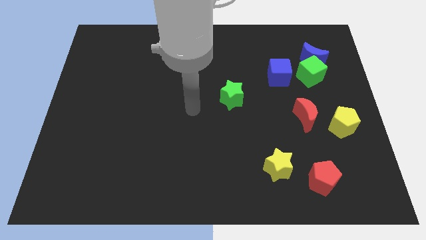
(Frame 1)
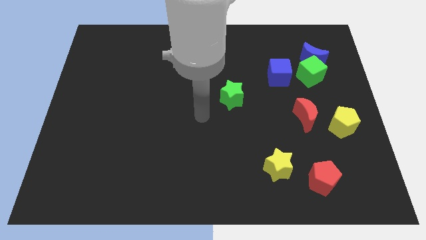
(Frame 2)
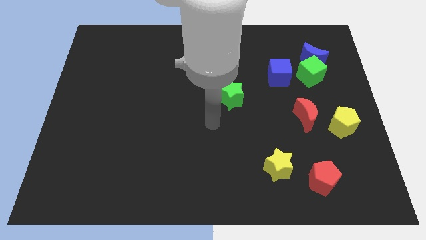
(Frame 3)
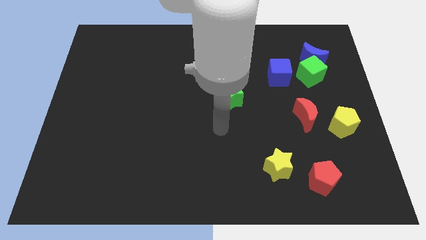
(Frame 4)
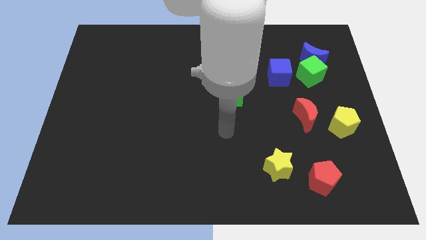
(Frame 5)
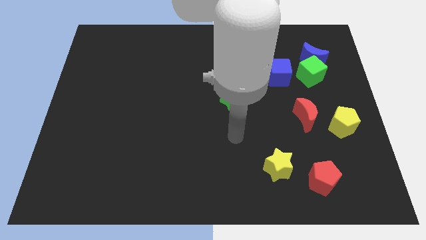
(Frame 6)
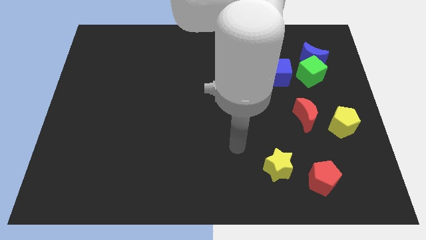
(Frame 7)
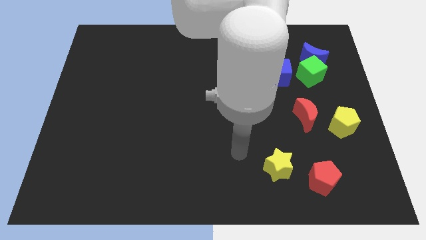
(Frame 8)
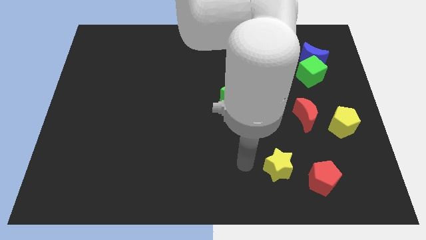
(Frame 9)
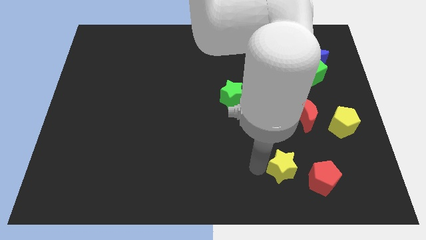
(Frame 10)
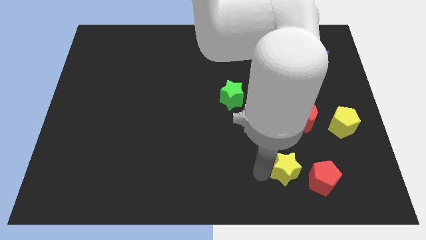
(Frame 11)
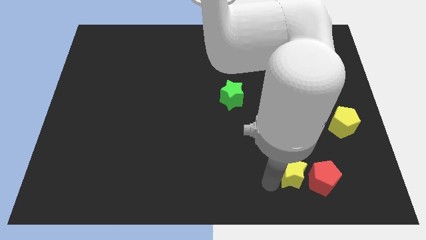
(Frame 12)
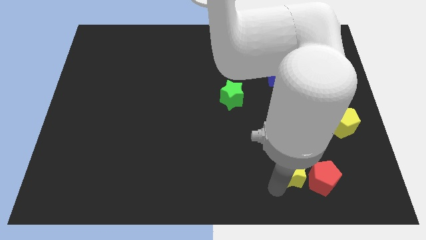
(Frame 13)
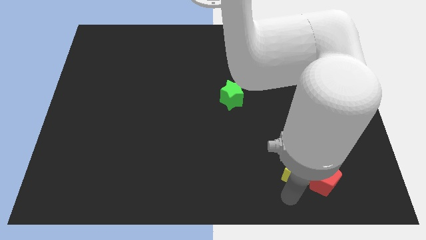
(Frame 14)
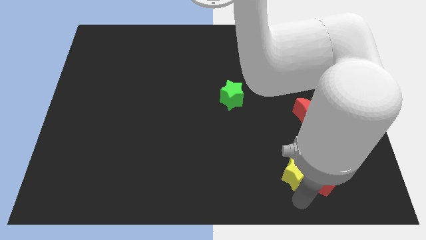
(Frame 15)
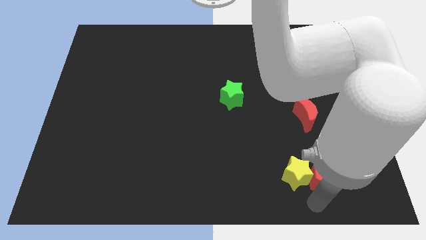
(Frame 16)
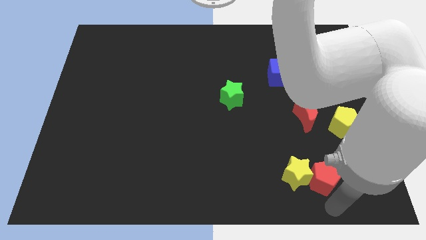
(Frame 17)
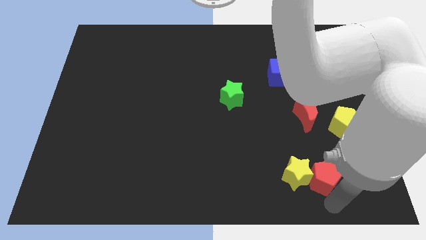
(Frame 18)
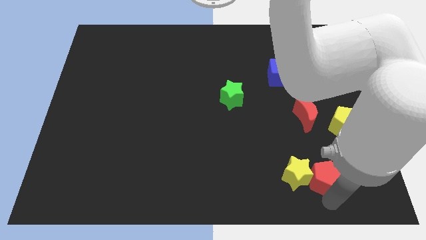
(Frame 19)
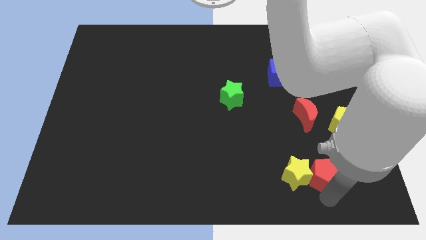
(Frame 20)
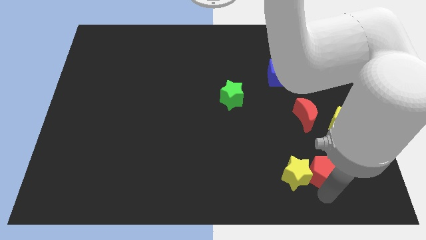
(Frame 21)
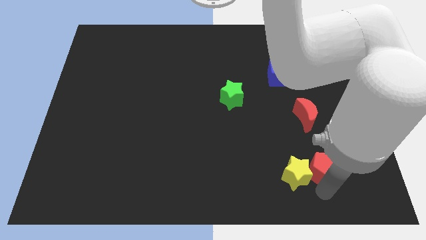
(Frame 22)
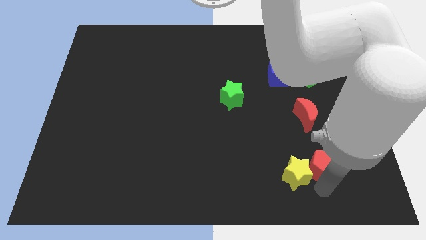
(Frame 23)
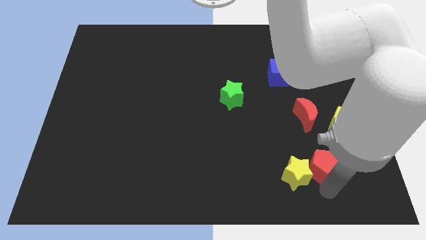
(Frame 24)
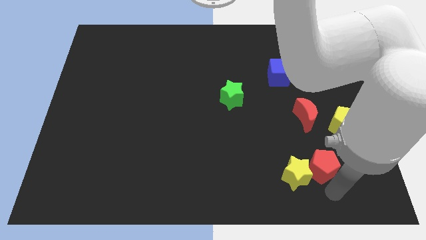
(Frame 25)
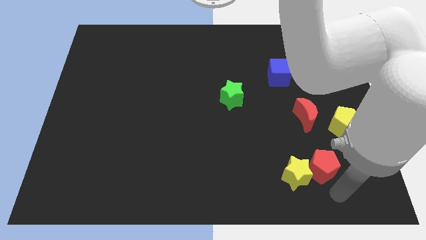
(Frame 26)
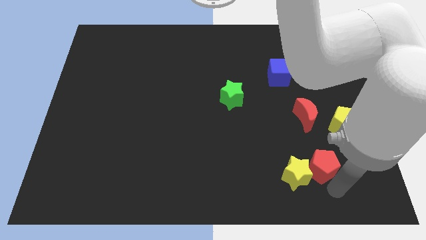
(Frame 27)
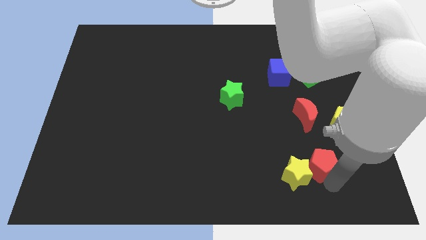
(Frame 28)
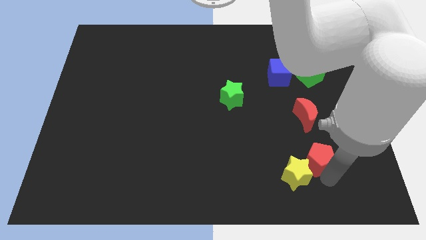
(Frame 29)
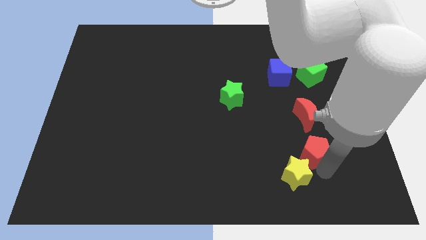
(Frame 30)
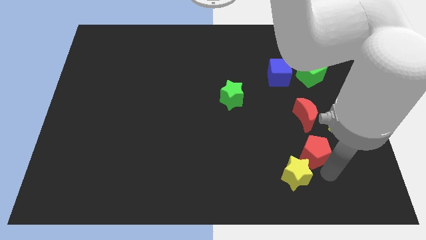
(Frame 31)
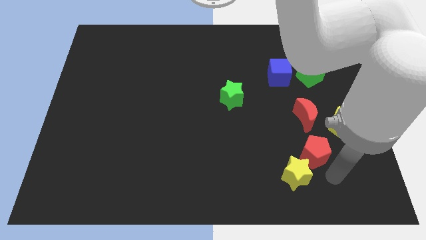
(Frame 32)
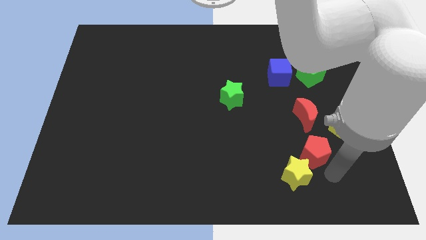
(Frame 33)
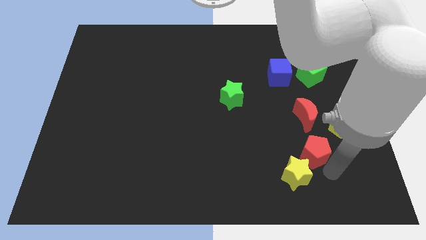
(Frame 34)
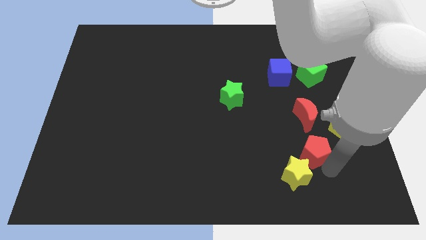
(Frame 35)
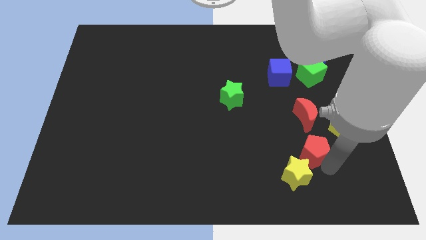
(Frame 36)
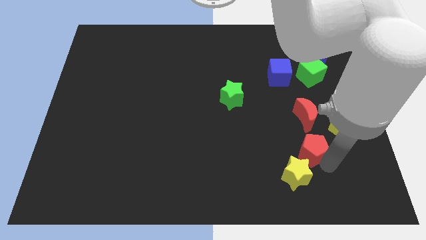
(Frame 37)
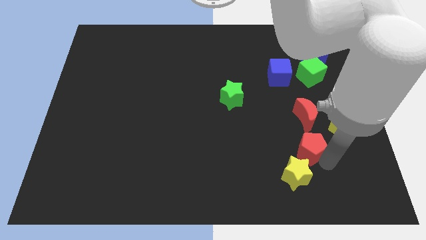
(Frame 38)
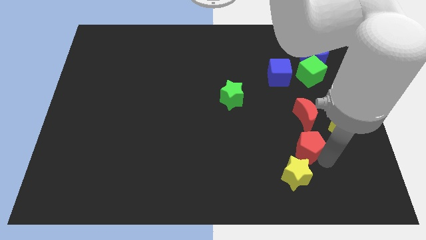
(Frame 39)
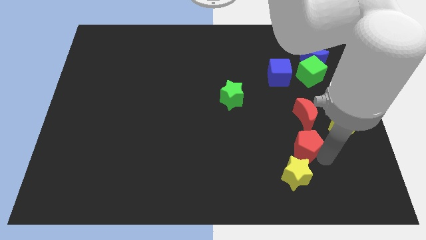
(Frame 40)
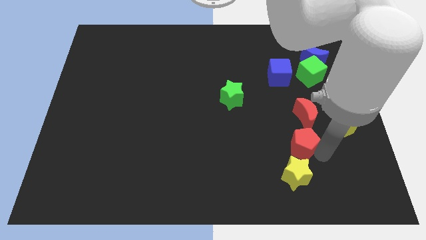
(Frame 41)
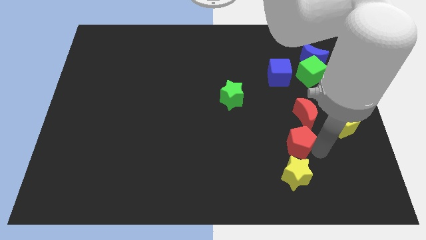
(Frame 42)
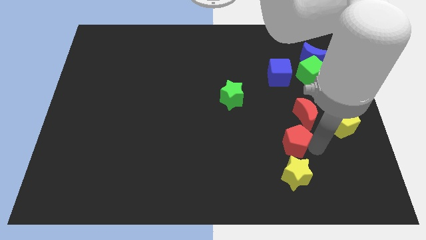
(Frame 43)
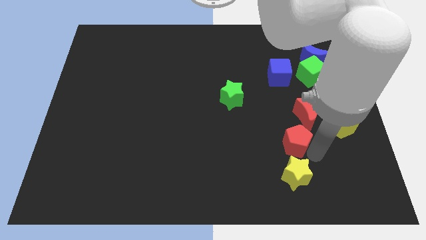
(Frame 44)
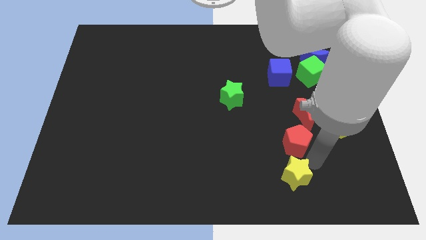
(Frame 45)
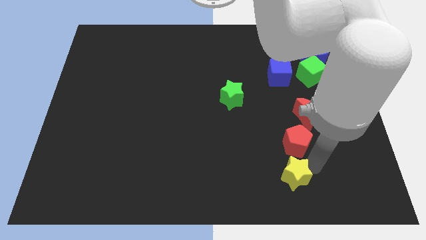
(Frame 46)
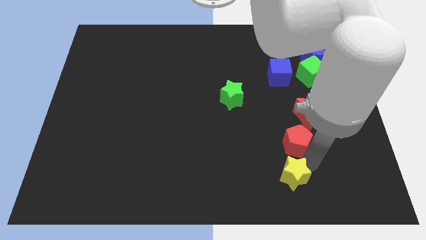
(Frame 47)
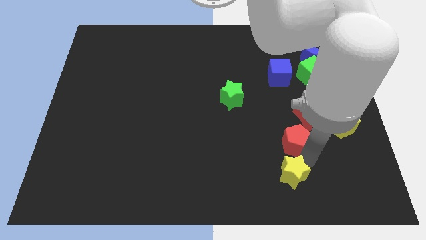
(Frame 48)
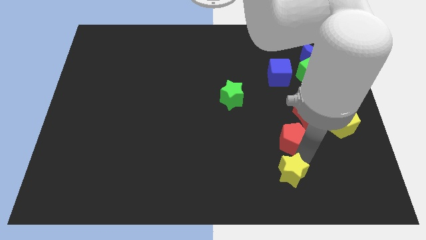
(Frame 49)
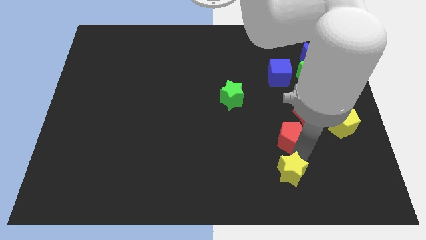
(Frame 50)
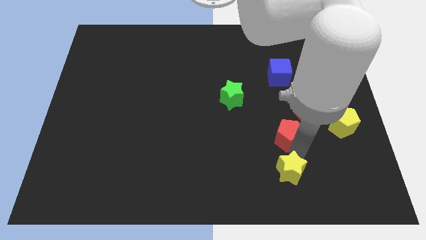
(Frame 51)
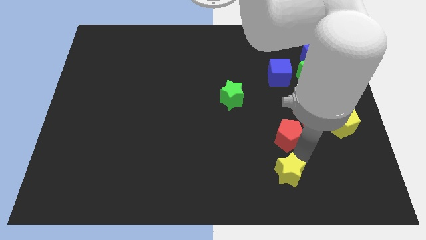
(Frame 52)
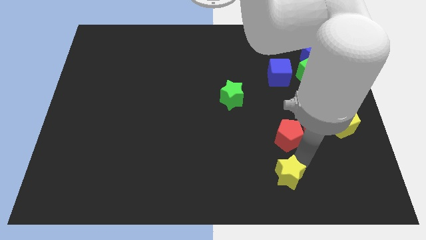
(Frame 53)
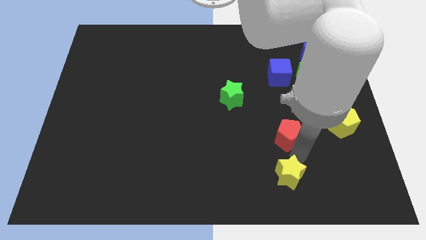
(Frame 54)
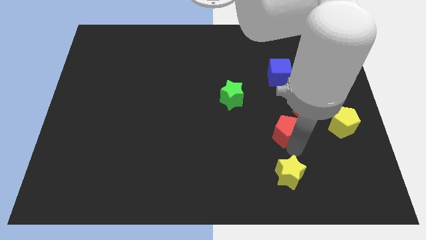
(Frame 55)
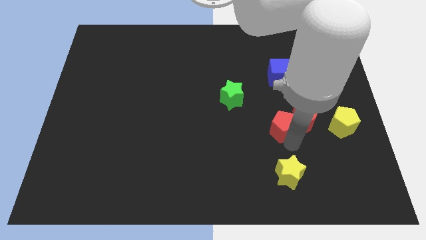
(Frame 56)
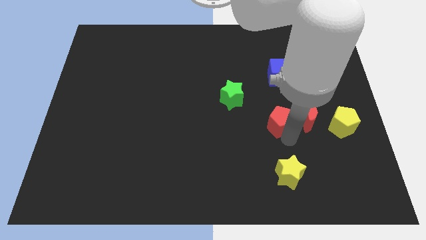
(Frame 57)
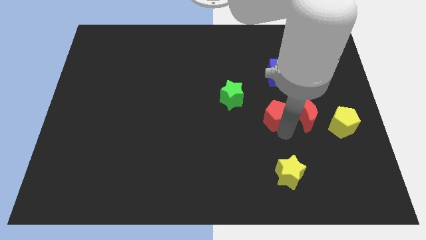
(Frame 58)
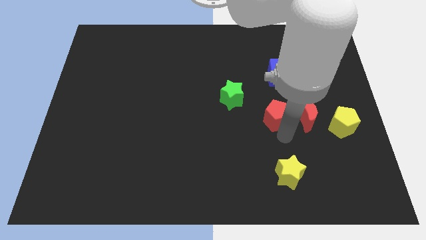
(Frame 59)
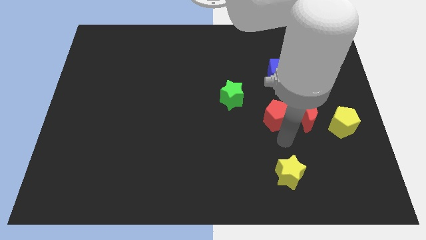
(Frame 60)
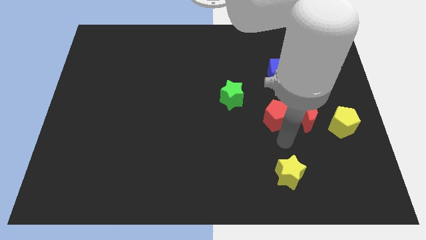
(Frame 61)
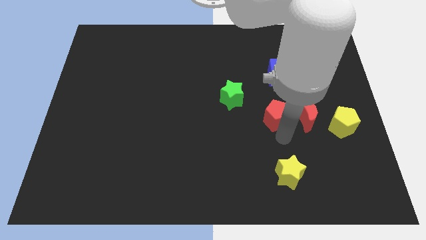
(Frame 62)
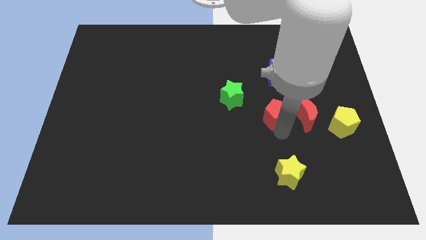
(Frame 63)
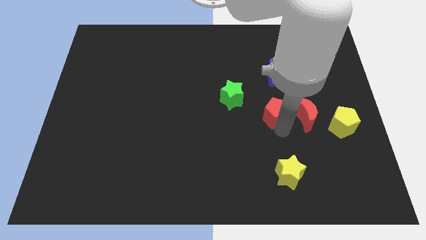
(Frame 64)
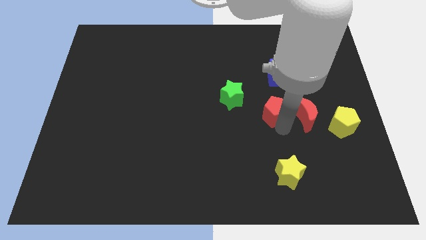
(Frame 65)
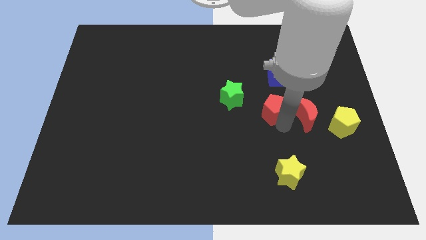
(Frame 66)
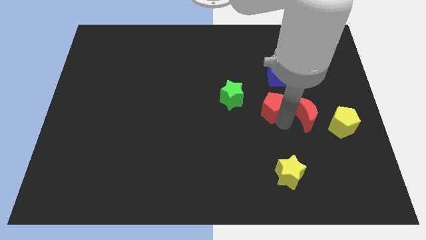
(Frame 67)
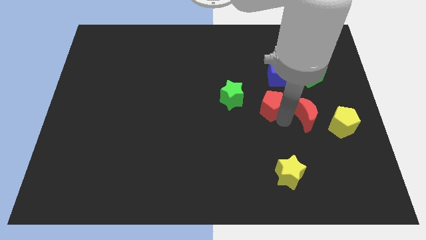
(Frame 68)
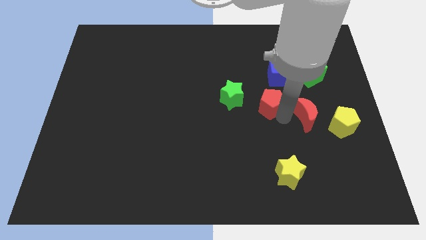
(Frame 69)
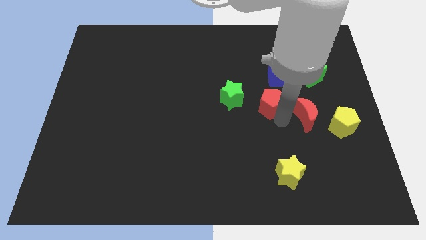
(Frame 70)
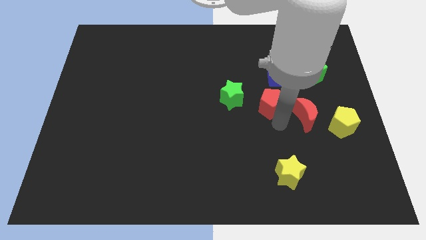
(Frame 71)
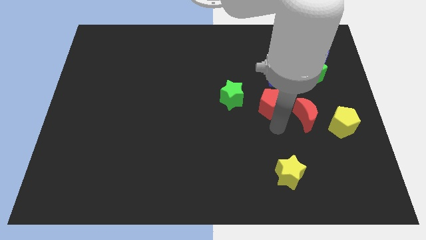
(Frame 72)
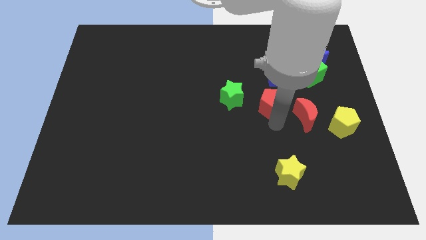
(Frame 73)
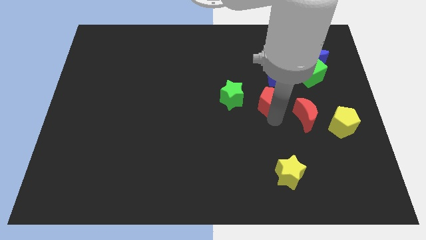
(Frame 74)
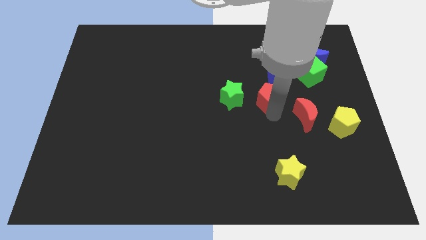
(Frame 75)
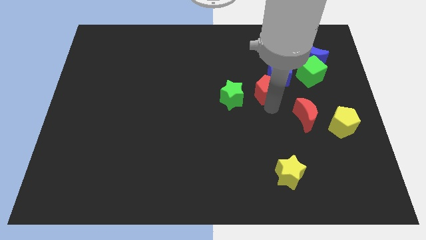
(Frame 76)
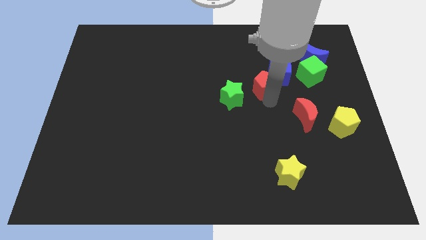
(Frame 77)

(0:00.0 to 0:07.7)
push the red pentagon upwards

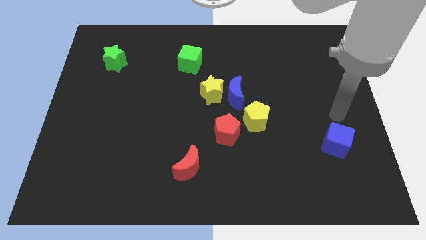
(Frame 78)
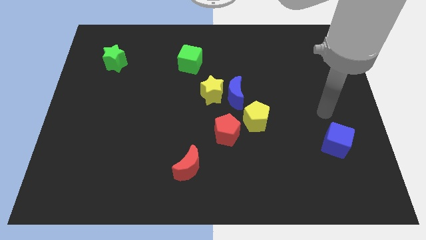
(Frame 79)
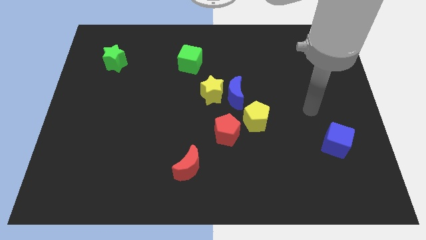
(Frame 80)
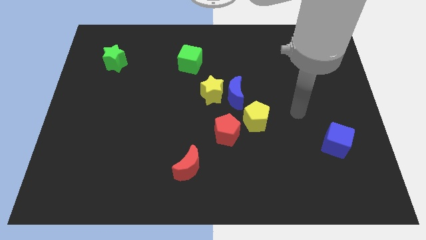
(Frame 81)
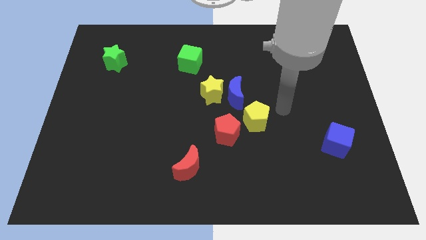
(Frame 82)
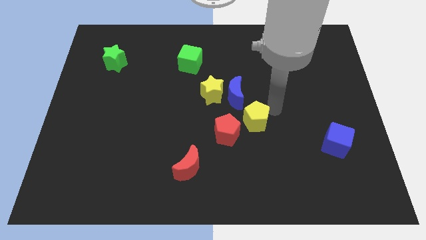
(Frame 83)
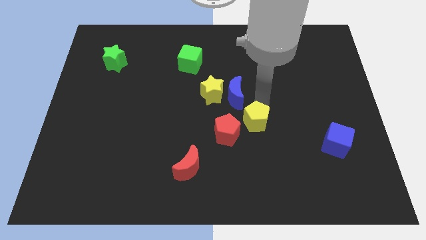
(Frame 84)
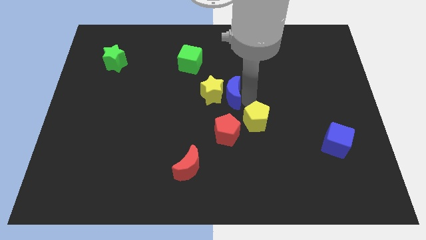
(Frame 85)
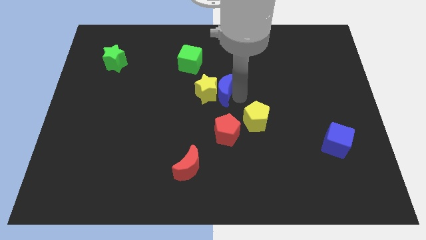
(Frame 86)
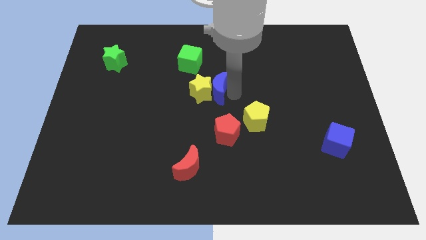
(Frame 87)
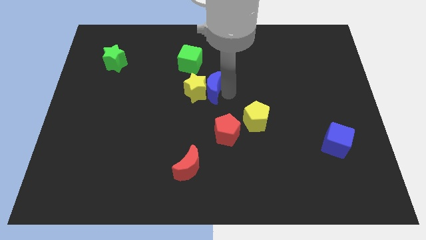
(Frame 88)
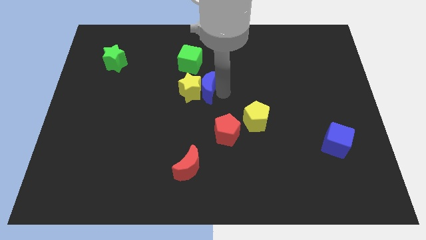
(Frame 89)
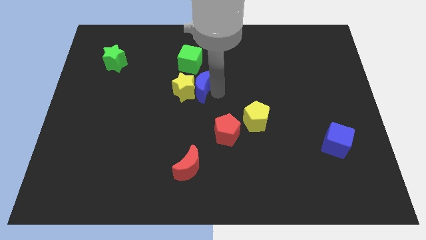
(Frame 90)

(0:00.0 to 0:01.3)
slightly slide the yellow star to the left
